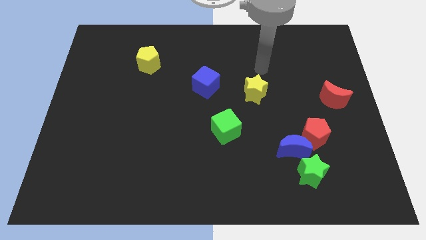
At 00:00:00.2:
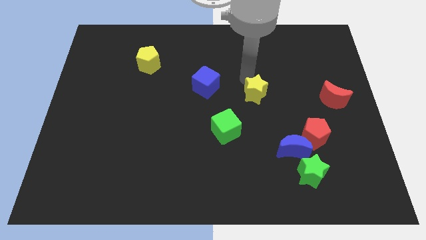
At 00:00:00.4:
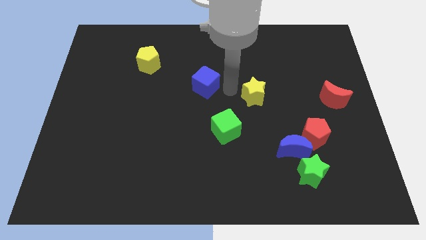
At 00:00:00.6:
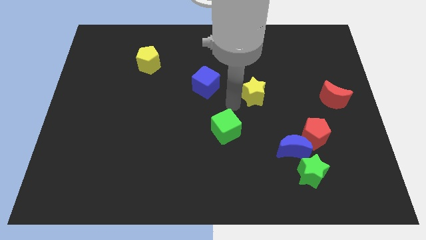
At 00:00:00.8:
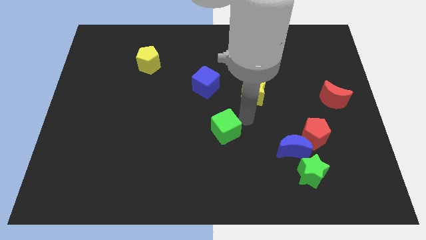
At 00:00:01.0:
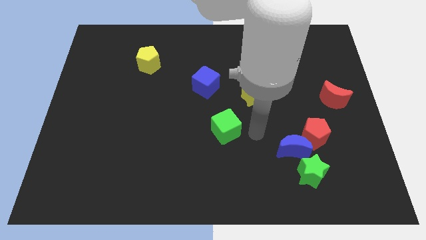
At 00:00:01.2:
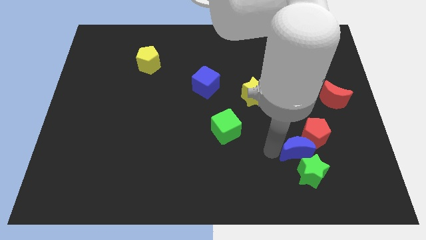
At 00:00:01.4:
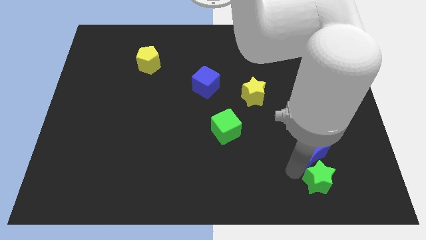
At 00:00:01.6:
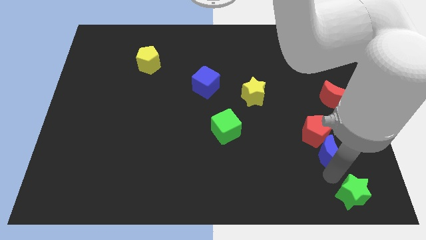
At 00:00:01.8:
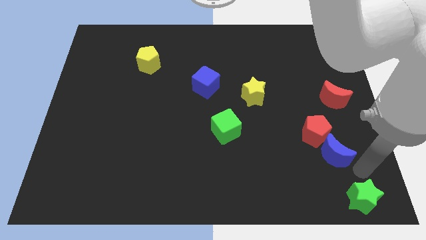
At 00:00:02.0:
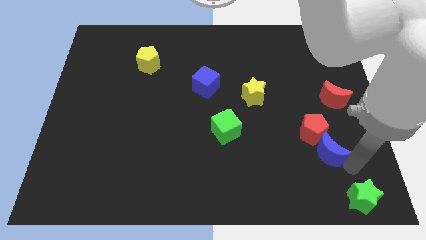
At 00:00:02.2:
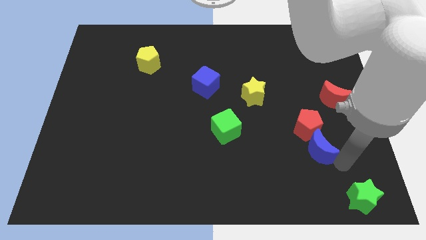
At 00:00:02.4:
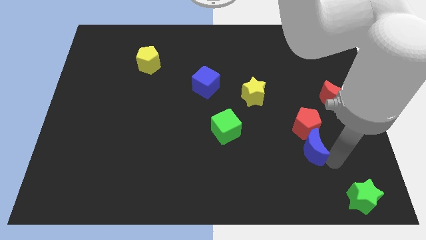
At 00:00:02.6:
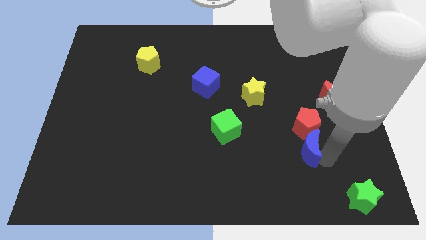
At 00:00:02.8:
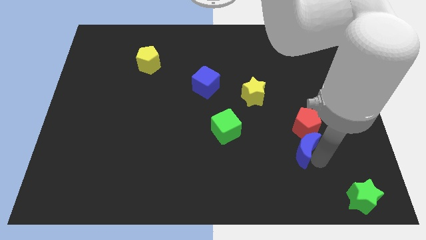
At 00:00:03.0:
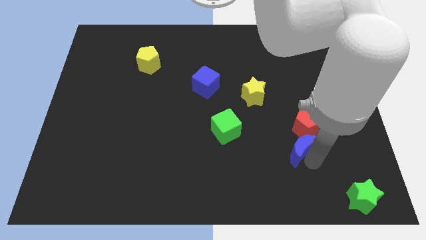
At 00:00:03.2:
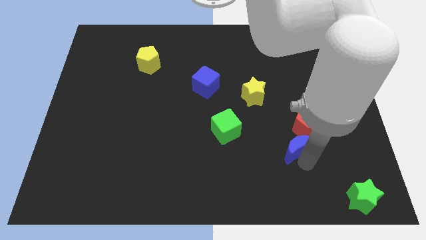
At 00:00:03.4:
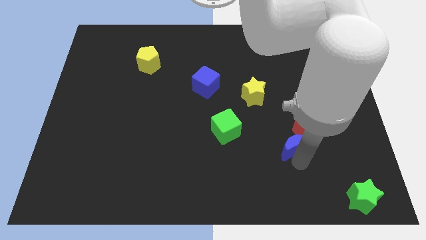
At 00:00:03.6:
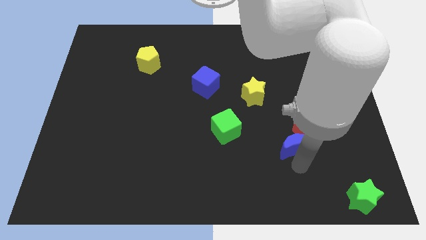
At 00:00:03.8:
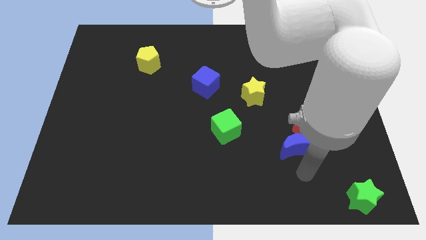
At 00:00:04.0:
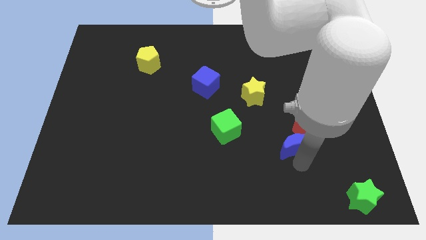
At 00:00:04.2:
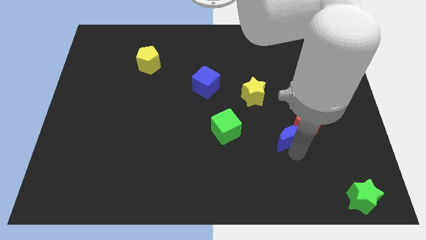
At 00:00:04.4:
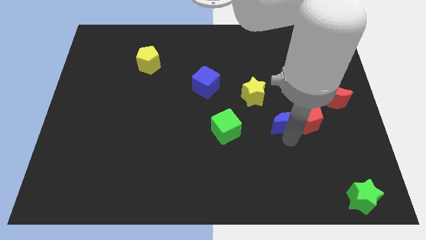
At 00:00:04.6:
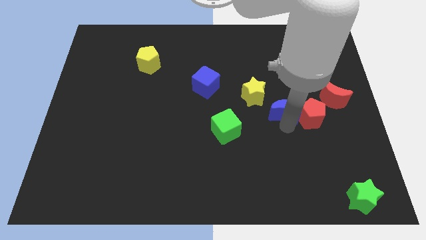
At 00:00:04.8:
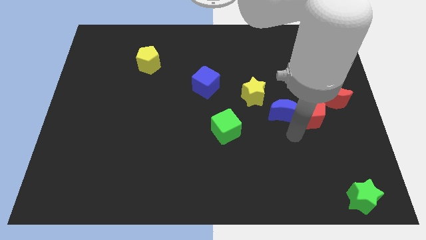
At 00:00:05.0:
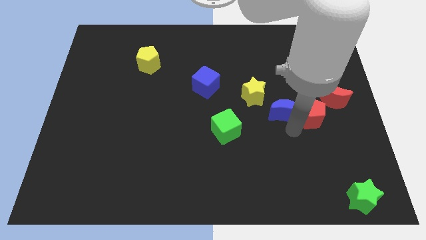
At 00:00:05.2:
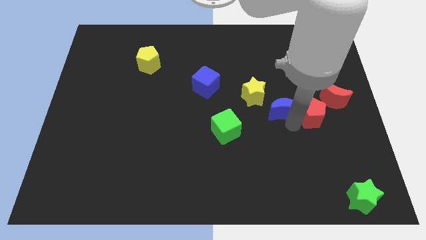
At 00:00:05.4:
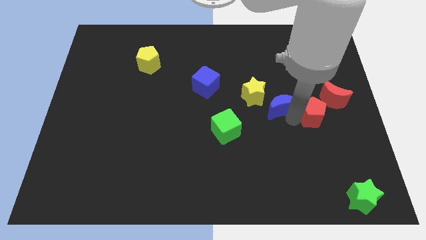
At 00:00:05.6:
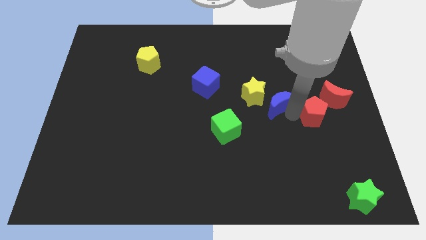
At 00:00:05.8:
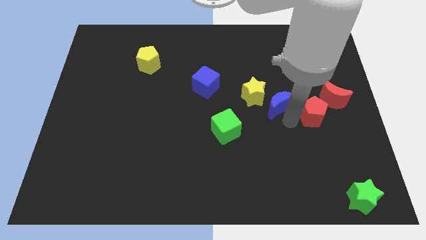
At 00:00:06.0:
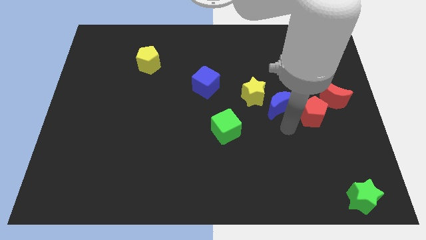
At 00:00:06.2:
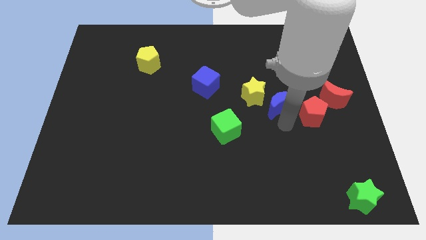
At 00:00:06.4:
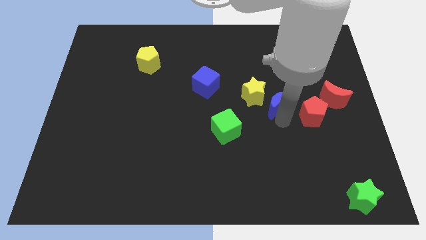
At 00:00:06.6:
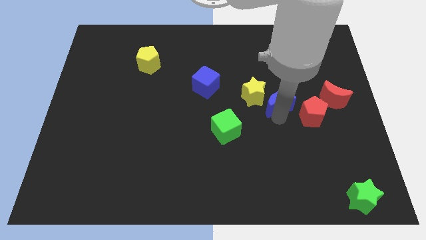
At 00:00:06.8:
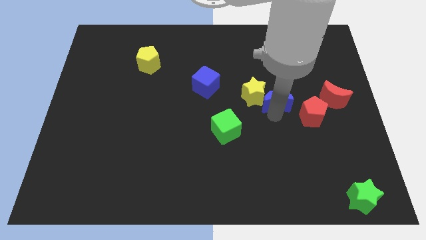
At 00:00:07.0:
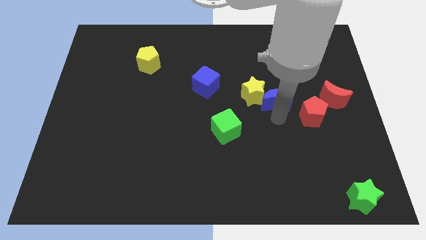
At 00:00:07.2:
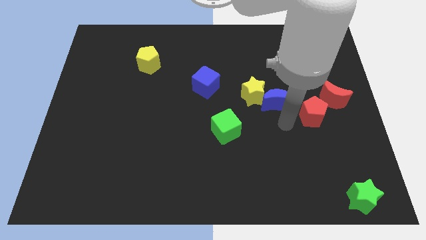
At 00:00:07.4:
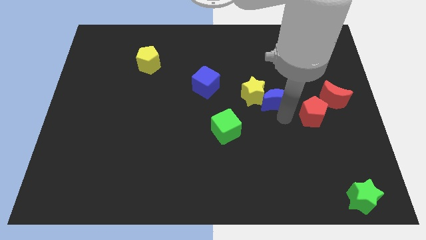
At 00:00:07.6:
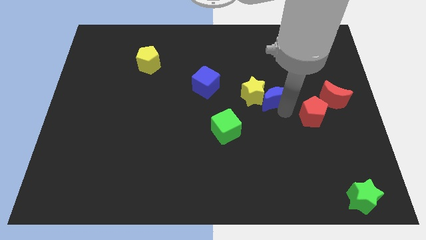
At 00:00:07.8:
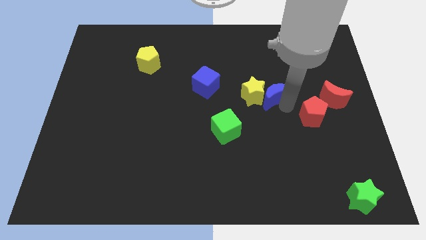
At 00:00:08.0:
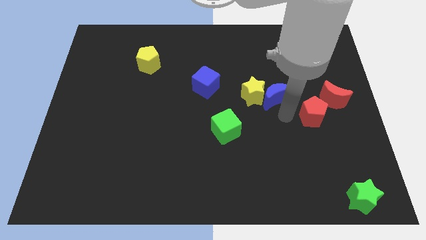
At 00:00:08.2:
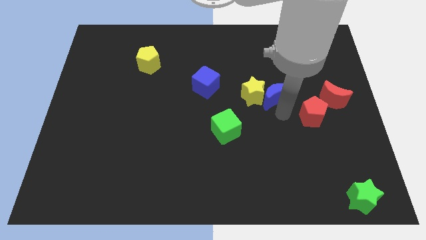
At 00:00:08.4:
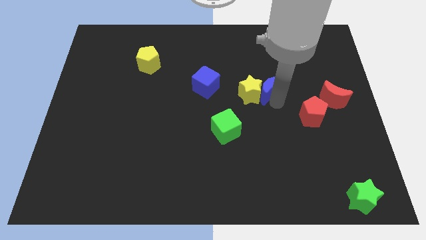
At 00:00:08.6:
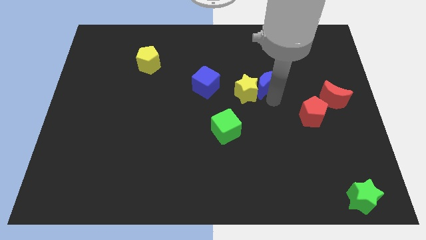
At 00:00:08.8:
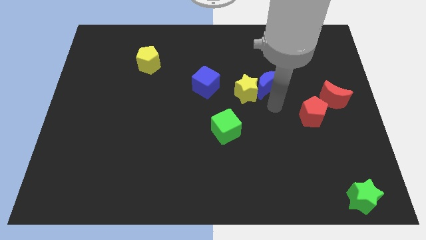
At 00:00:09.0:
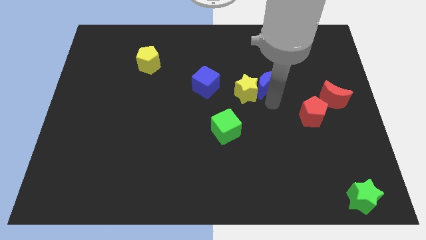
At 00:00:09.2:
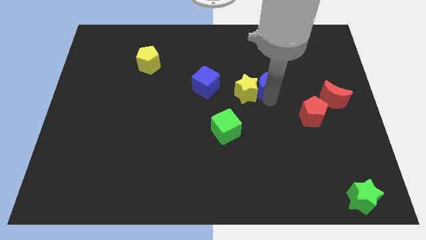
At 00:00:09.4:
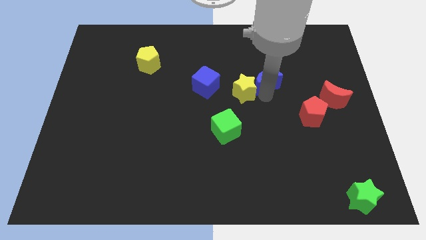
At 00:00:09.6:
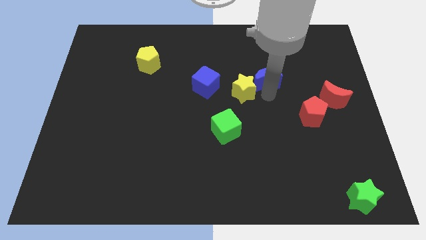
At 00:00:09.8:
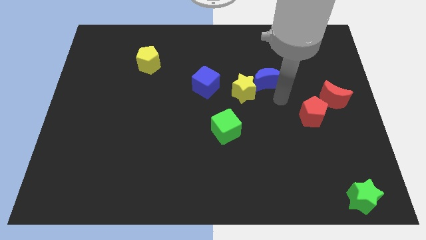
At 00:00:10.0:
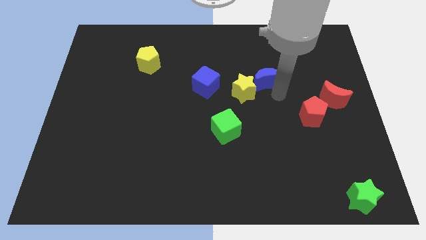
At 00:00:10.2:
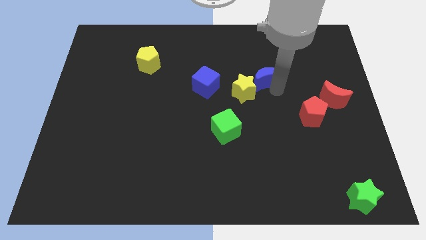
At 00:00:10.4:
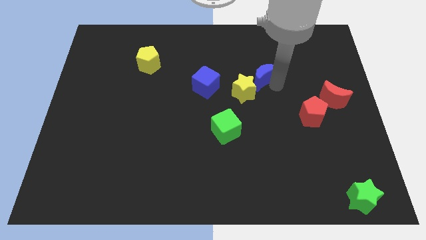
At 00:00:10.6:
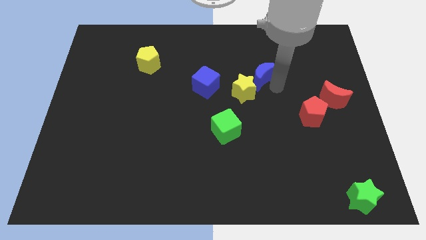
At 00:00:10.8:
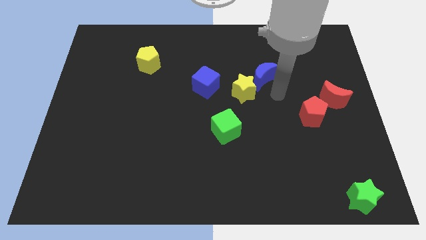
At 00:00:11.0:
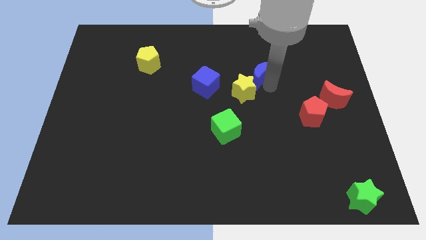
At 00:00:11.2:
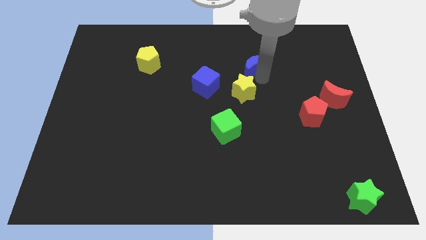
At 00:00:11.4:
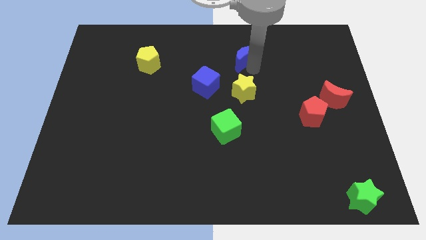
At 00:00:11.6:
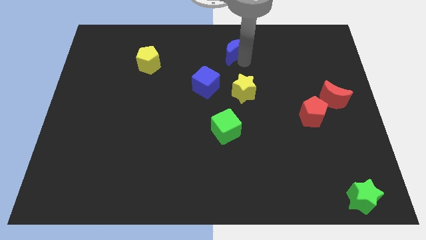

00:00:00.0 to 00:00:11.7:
slide the blue moon to the top side

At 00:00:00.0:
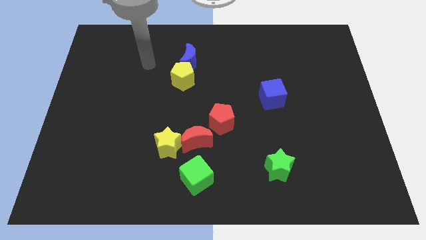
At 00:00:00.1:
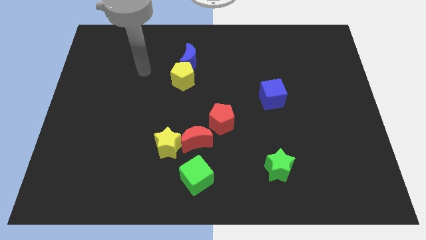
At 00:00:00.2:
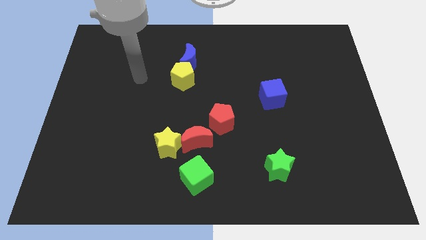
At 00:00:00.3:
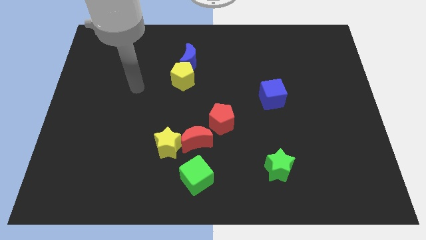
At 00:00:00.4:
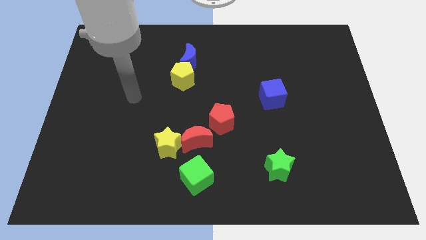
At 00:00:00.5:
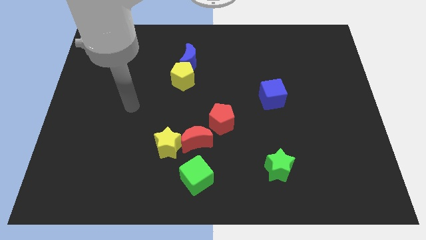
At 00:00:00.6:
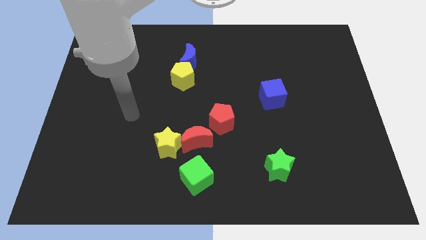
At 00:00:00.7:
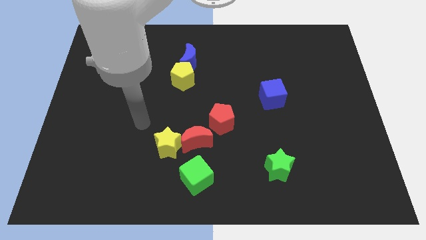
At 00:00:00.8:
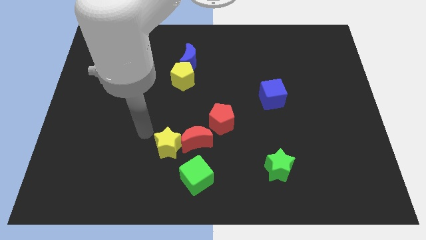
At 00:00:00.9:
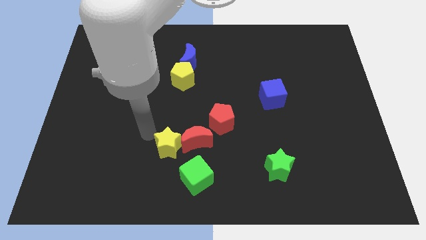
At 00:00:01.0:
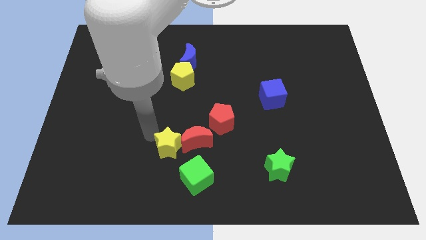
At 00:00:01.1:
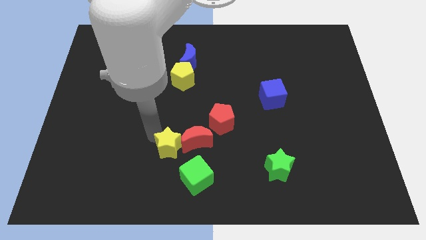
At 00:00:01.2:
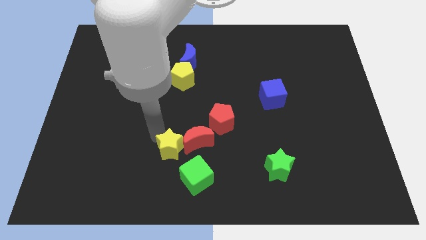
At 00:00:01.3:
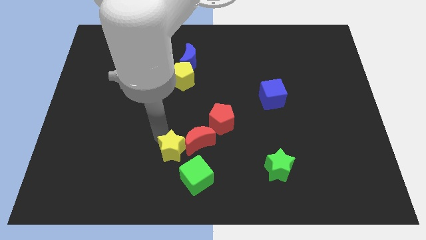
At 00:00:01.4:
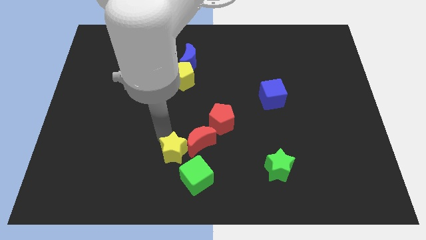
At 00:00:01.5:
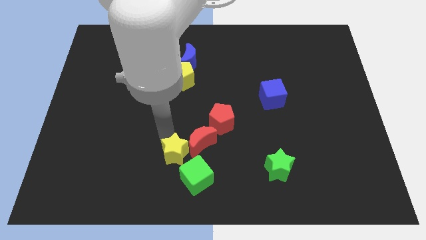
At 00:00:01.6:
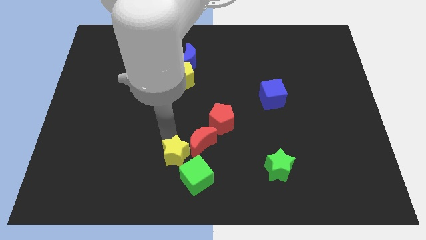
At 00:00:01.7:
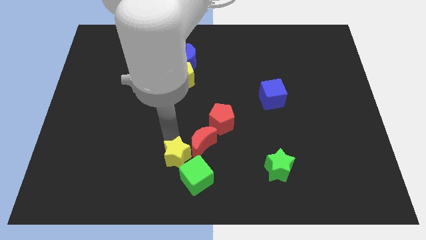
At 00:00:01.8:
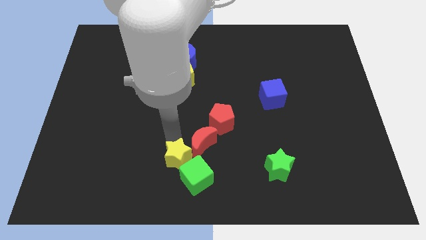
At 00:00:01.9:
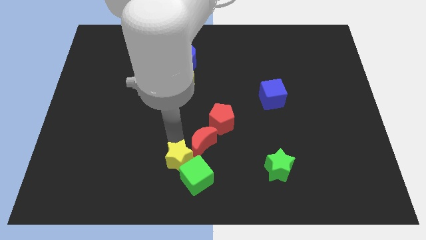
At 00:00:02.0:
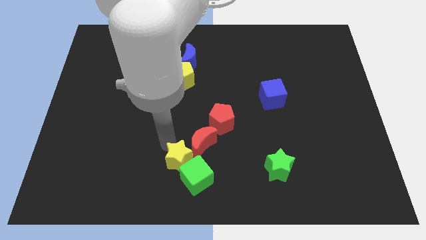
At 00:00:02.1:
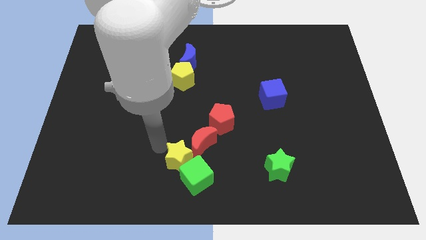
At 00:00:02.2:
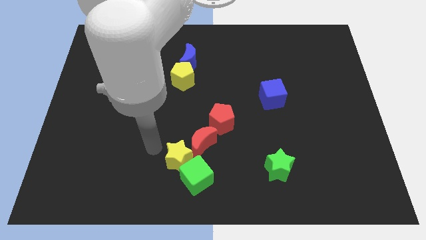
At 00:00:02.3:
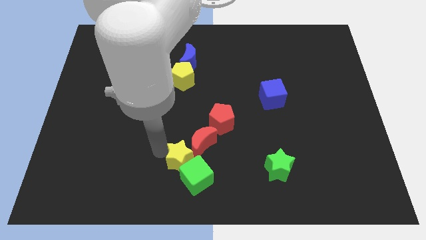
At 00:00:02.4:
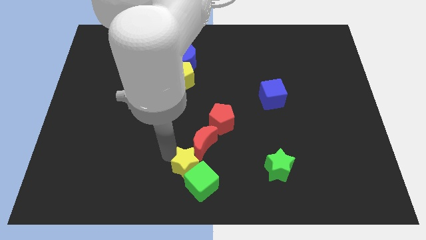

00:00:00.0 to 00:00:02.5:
move the yellow star to the bottom
